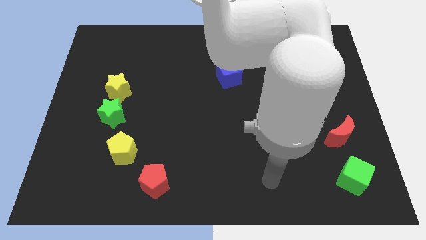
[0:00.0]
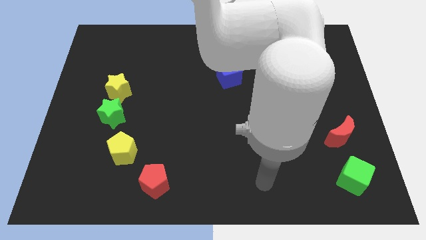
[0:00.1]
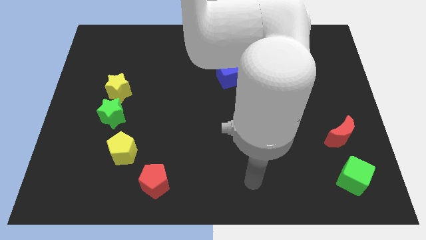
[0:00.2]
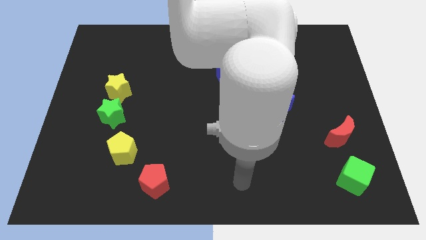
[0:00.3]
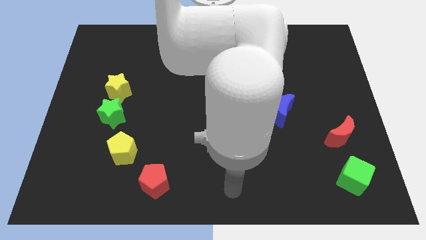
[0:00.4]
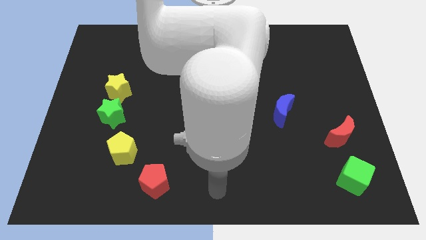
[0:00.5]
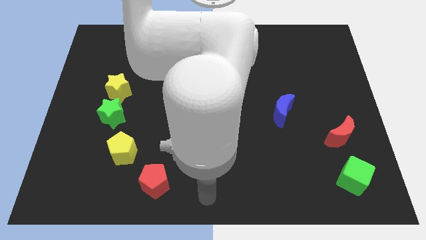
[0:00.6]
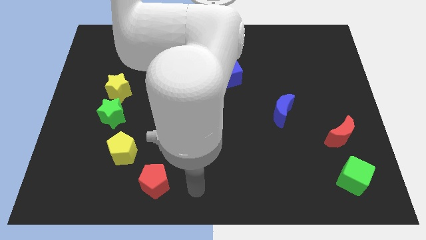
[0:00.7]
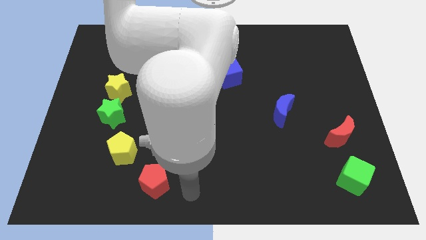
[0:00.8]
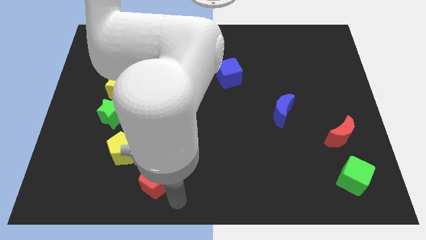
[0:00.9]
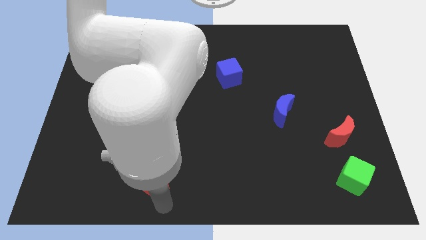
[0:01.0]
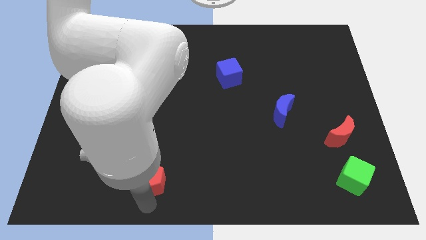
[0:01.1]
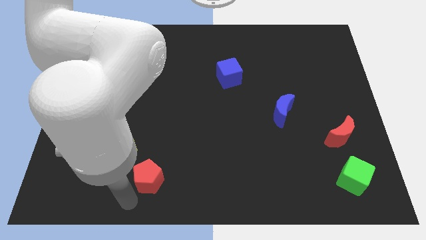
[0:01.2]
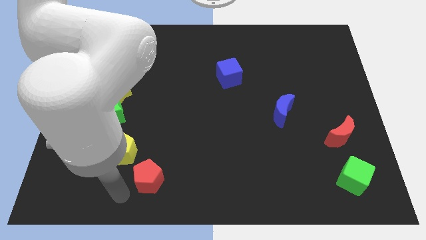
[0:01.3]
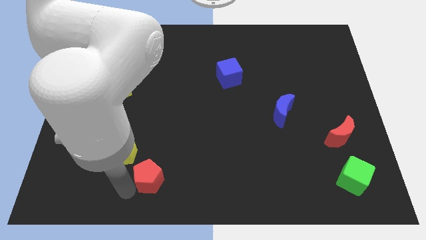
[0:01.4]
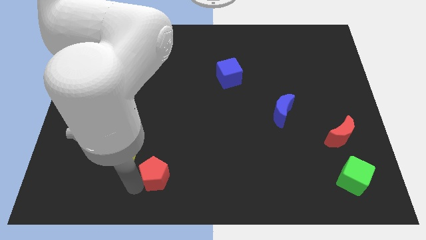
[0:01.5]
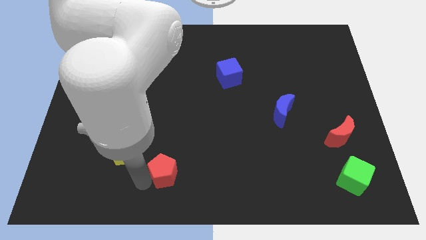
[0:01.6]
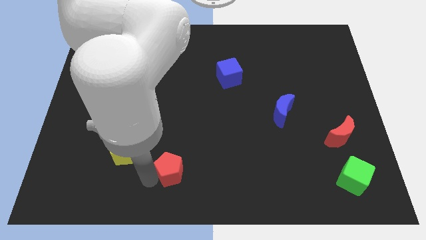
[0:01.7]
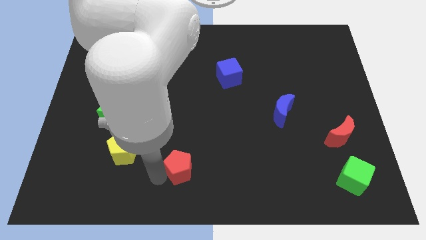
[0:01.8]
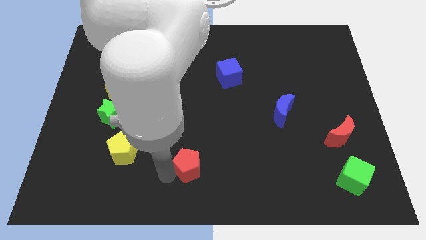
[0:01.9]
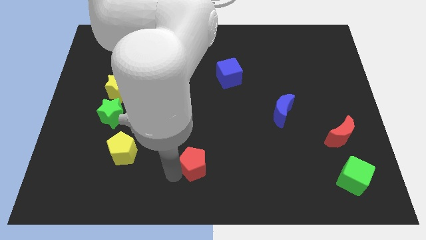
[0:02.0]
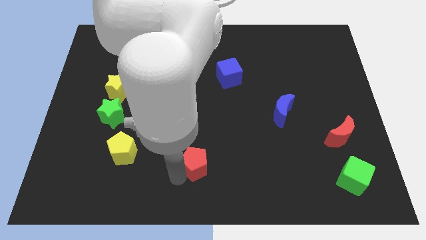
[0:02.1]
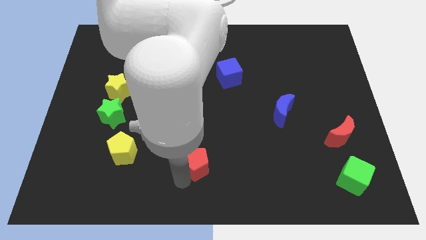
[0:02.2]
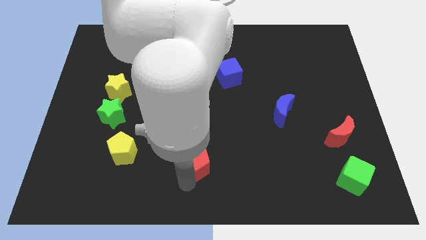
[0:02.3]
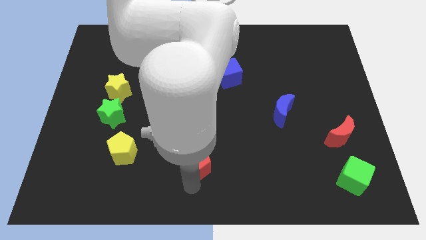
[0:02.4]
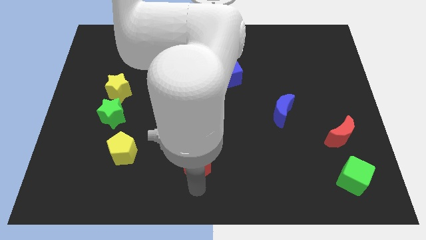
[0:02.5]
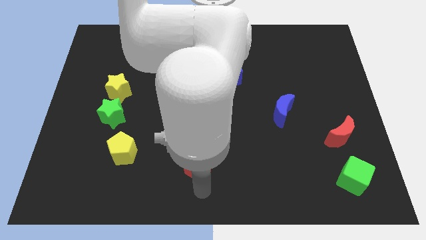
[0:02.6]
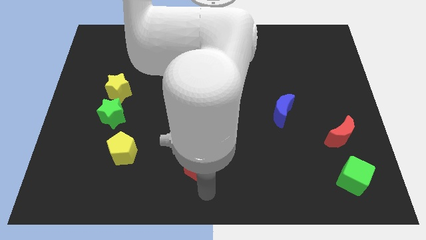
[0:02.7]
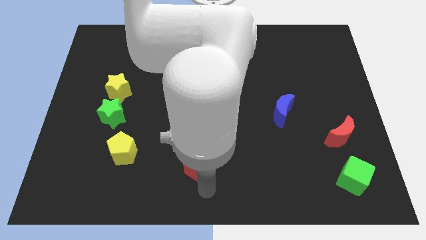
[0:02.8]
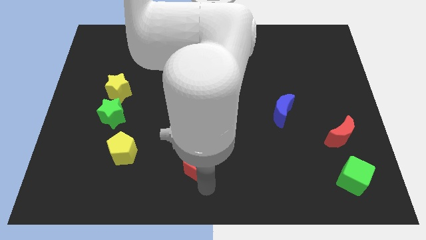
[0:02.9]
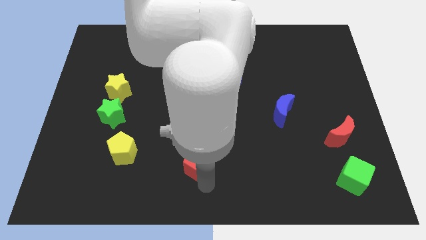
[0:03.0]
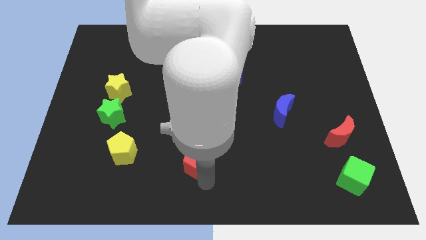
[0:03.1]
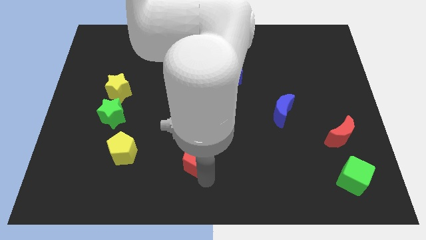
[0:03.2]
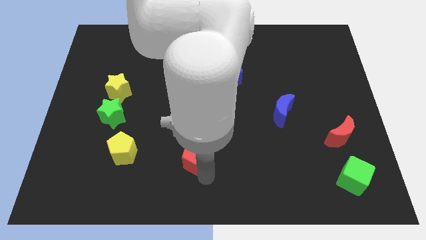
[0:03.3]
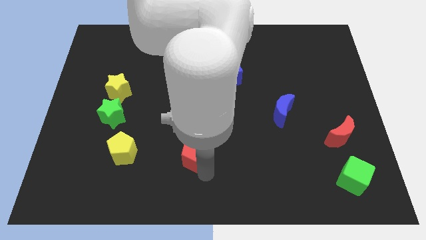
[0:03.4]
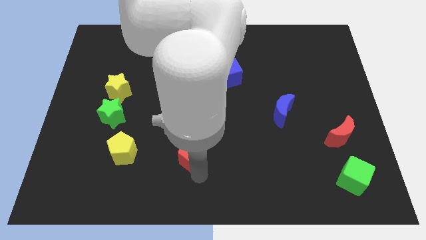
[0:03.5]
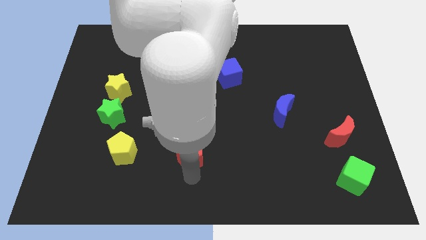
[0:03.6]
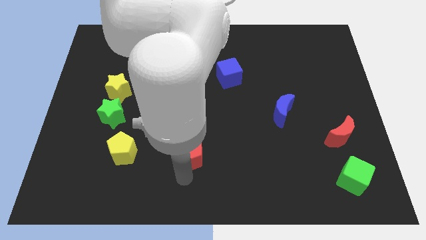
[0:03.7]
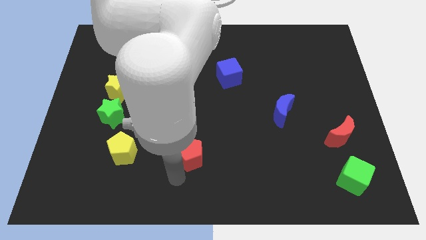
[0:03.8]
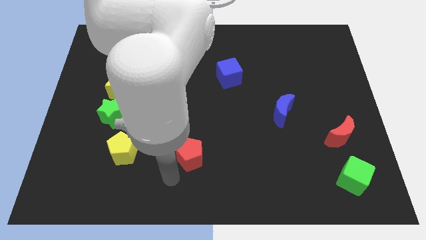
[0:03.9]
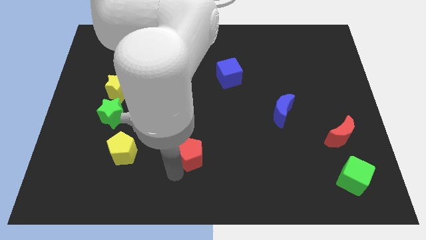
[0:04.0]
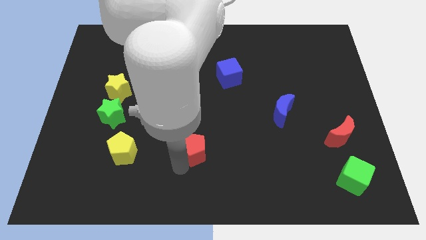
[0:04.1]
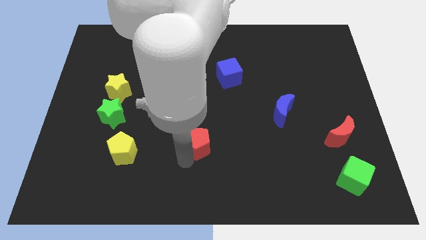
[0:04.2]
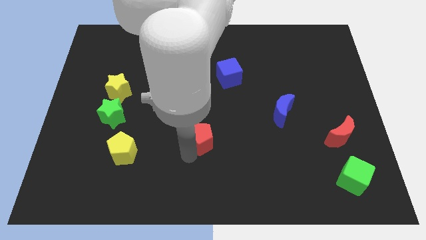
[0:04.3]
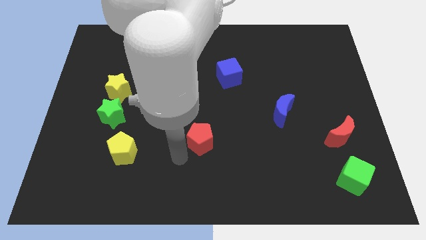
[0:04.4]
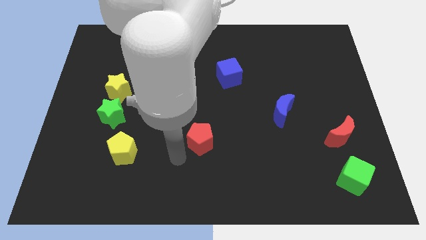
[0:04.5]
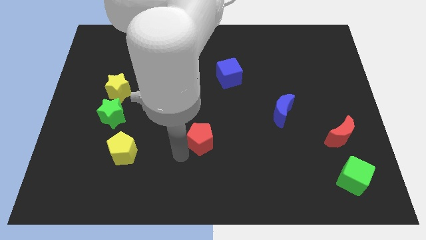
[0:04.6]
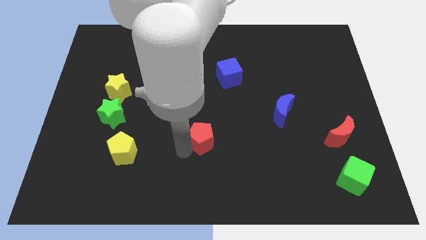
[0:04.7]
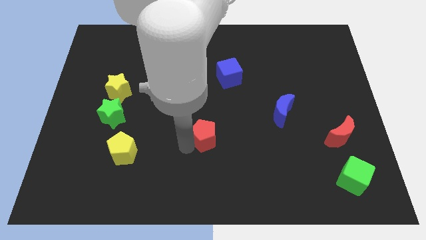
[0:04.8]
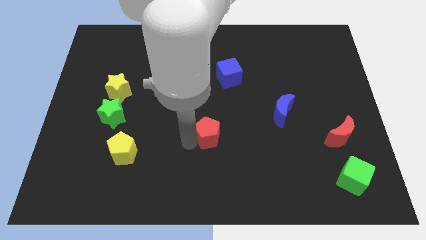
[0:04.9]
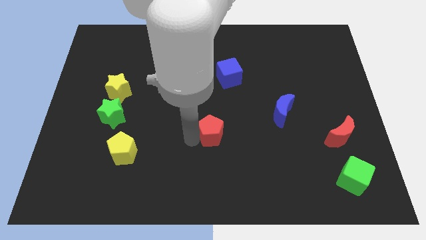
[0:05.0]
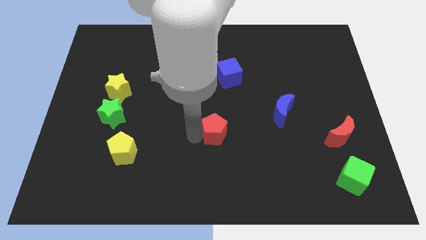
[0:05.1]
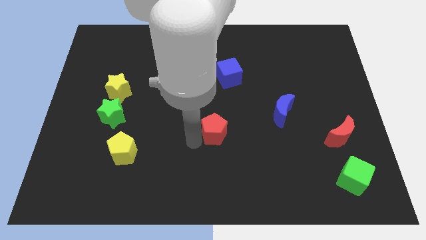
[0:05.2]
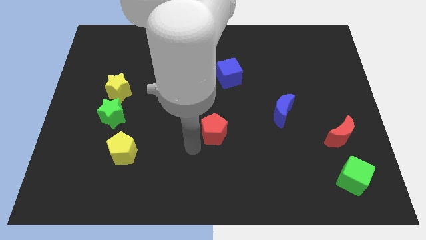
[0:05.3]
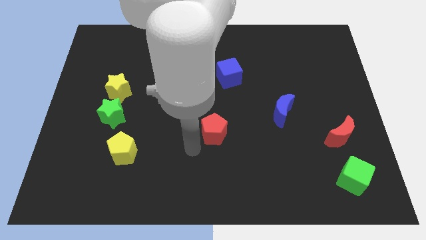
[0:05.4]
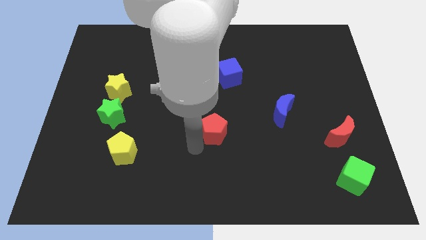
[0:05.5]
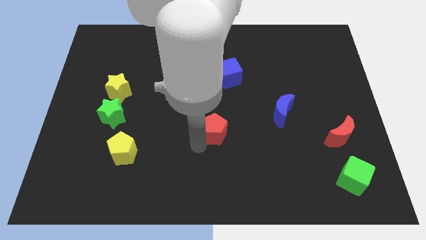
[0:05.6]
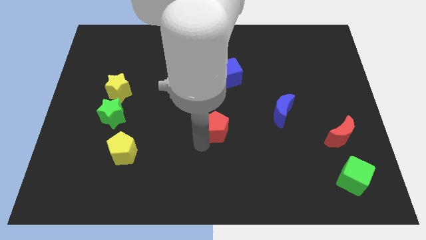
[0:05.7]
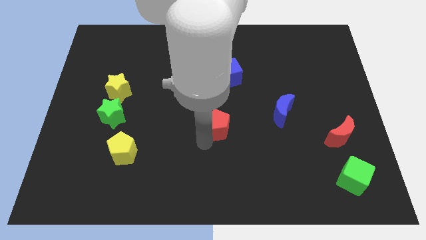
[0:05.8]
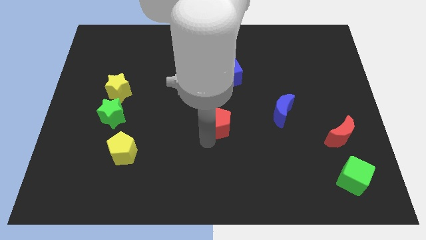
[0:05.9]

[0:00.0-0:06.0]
put the red pentagon just left of the blue moon

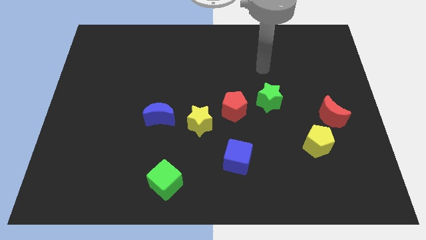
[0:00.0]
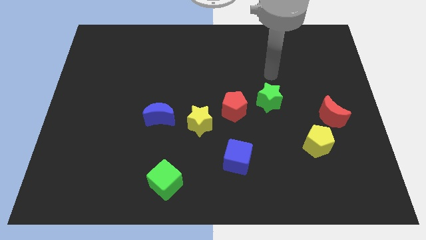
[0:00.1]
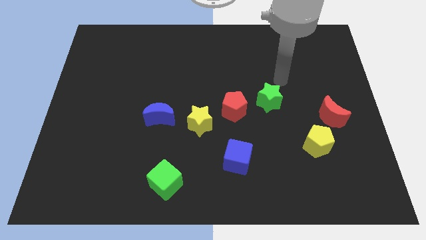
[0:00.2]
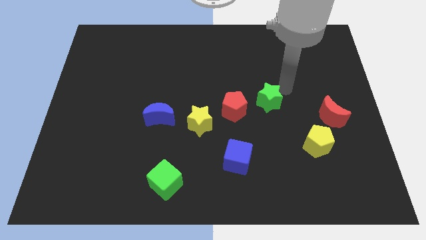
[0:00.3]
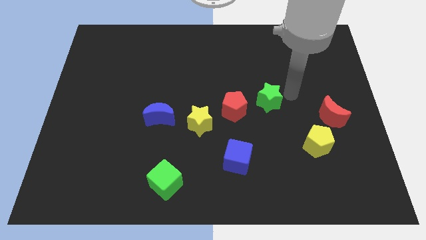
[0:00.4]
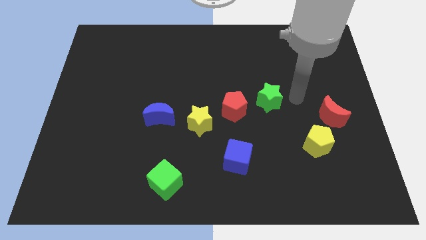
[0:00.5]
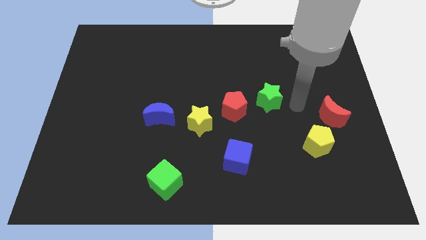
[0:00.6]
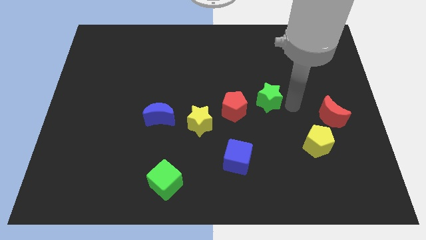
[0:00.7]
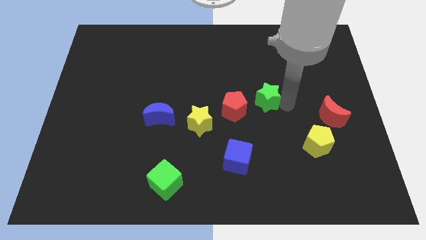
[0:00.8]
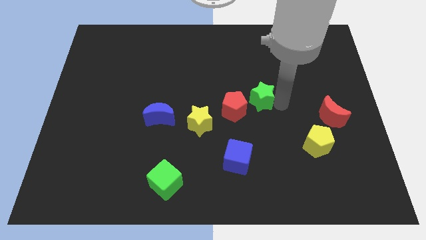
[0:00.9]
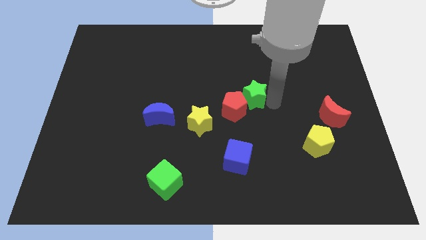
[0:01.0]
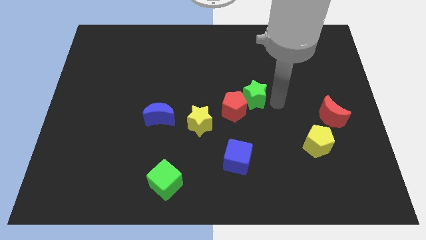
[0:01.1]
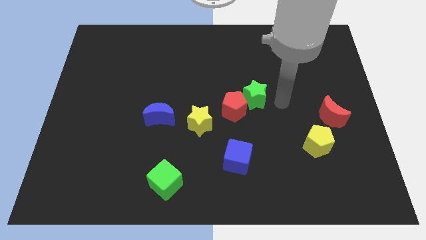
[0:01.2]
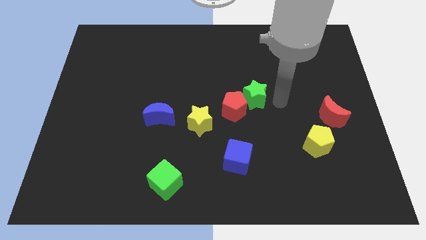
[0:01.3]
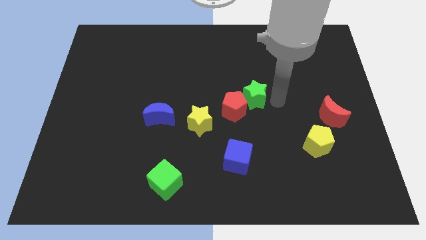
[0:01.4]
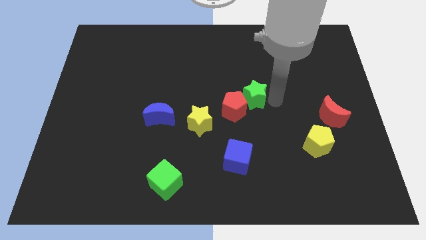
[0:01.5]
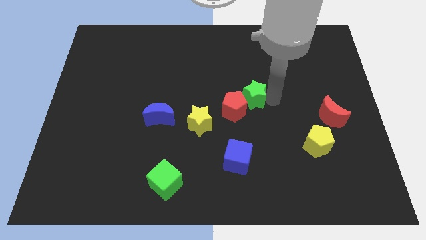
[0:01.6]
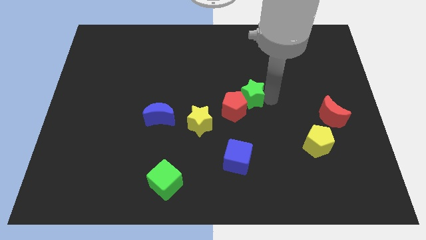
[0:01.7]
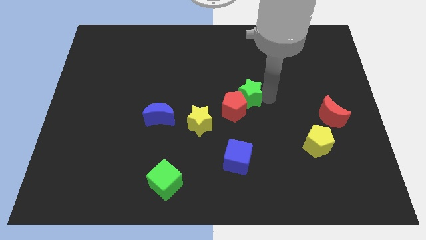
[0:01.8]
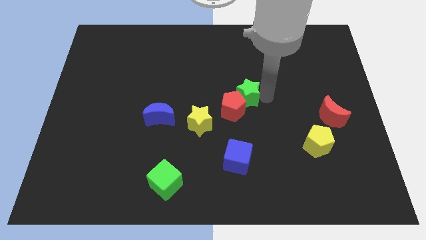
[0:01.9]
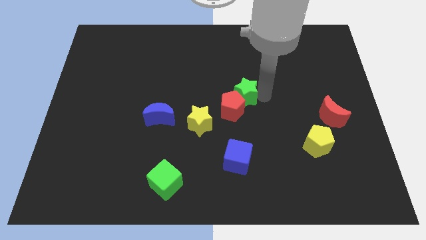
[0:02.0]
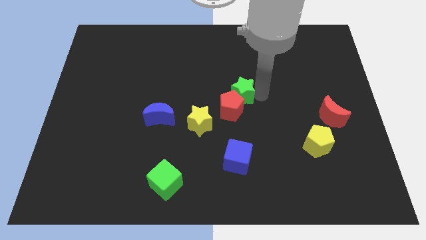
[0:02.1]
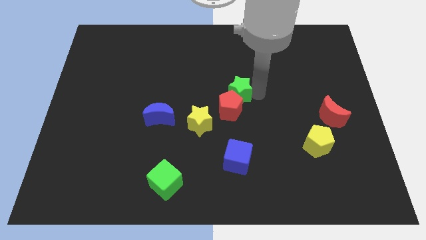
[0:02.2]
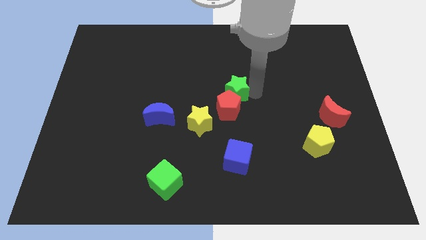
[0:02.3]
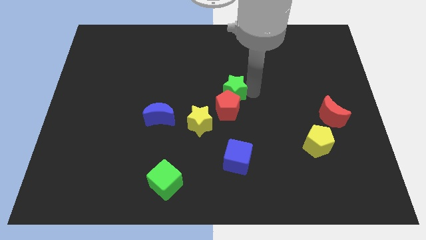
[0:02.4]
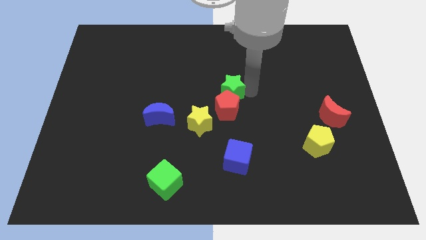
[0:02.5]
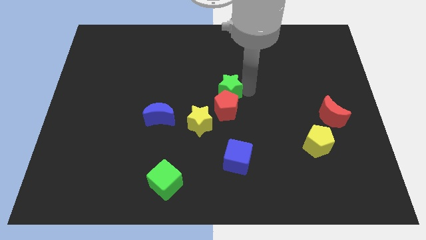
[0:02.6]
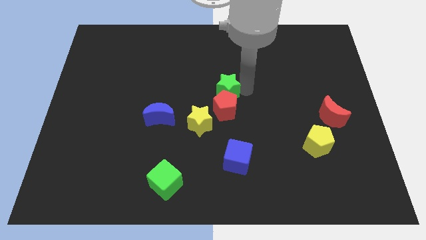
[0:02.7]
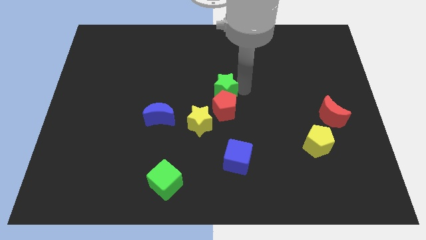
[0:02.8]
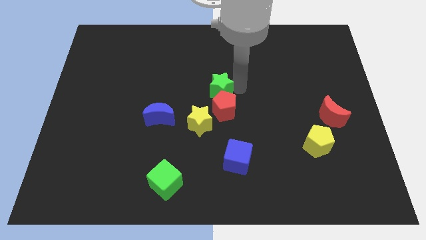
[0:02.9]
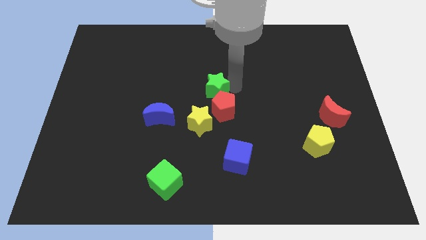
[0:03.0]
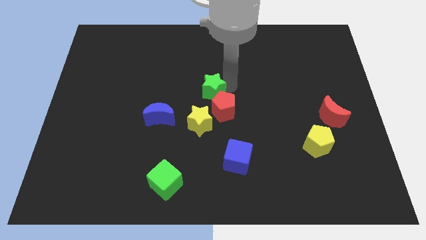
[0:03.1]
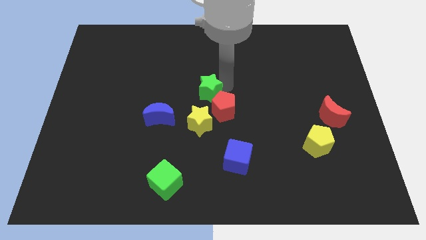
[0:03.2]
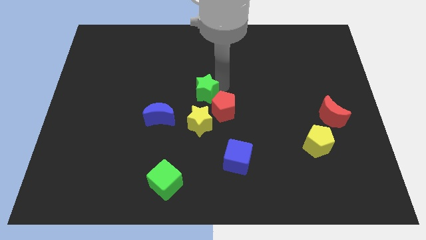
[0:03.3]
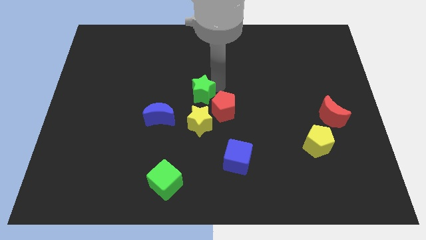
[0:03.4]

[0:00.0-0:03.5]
move the green star just left of the red pentagon
